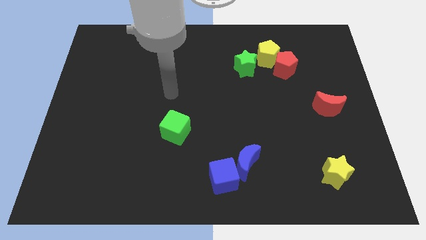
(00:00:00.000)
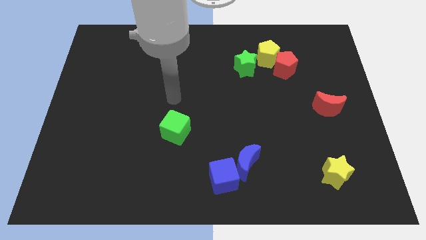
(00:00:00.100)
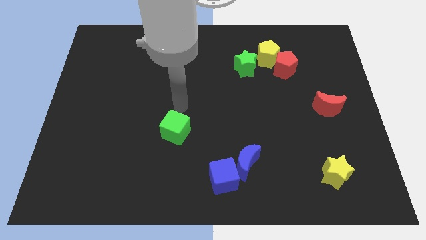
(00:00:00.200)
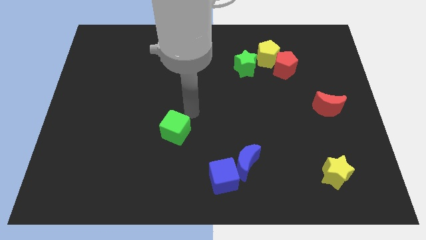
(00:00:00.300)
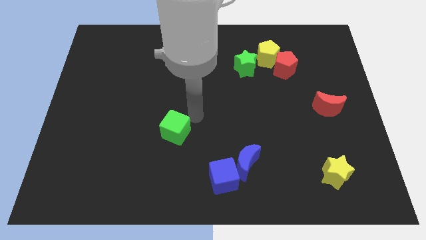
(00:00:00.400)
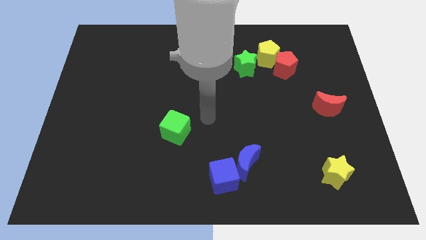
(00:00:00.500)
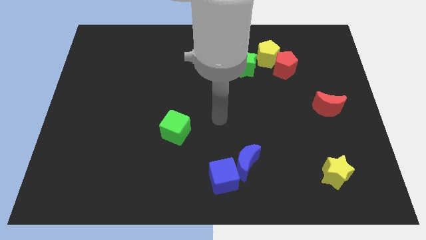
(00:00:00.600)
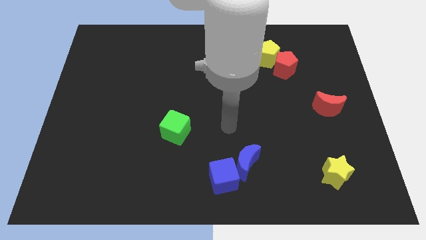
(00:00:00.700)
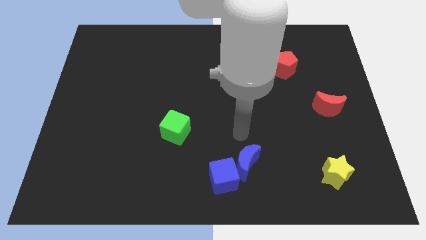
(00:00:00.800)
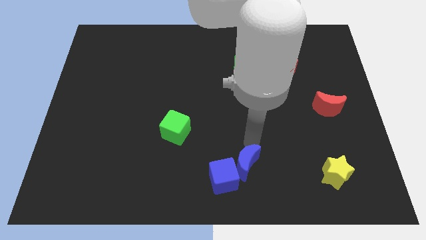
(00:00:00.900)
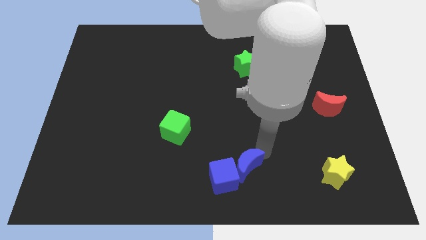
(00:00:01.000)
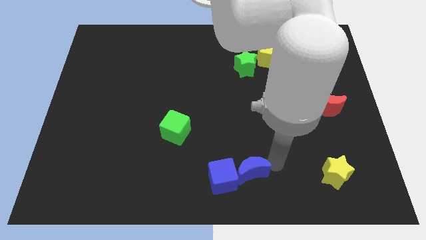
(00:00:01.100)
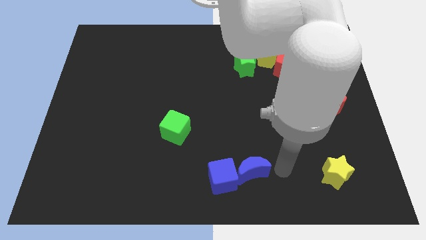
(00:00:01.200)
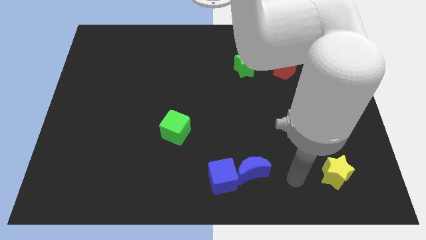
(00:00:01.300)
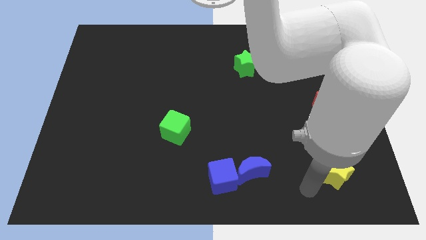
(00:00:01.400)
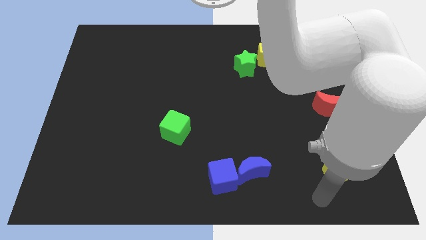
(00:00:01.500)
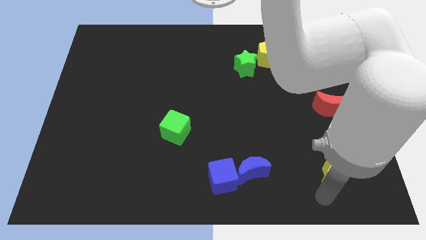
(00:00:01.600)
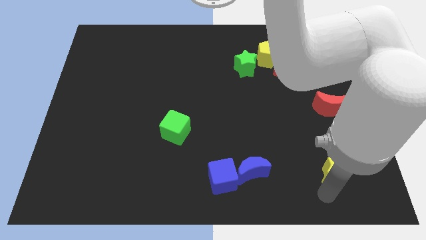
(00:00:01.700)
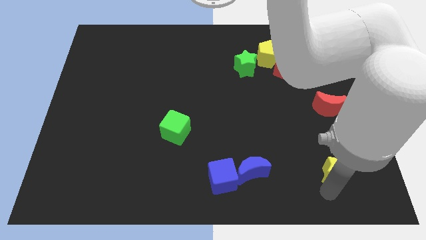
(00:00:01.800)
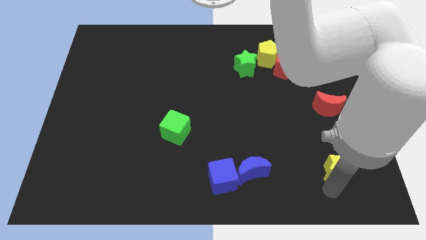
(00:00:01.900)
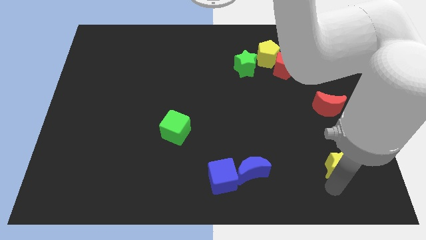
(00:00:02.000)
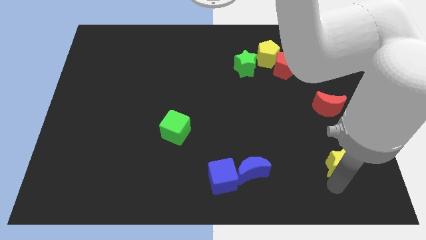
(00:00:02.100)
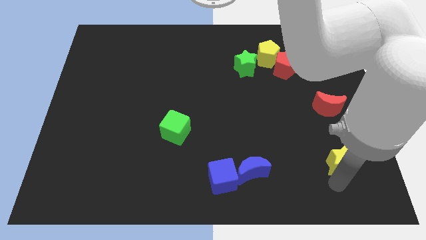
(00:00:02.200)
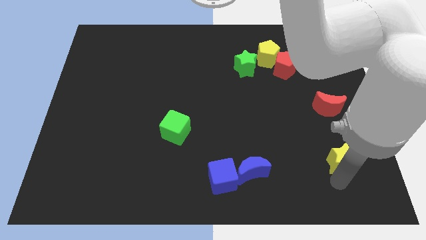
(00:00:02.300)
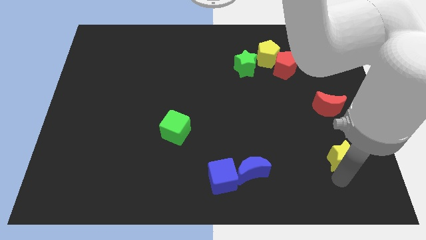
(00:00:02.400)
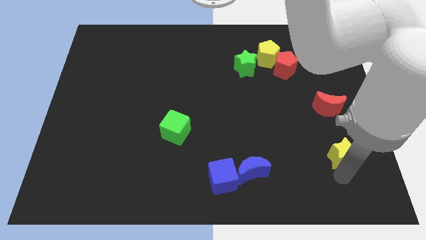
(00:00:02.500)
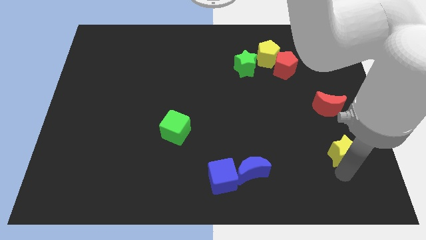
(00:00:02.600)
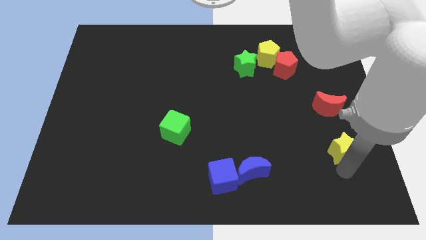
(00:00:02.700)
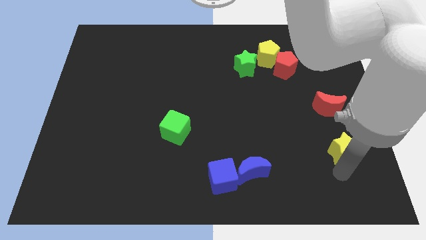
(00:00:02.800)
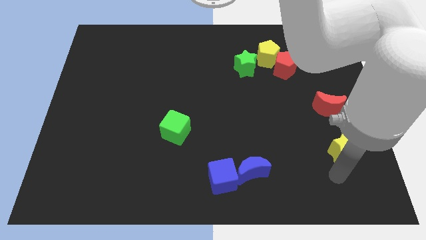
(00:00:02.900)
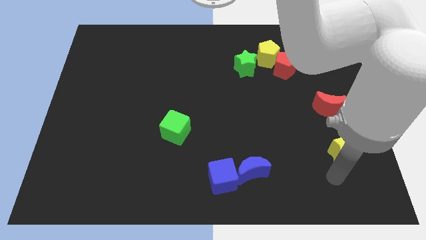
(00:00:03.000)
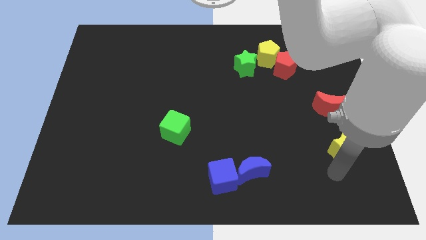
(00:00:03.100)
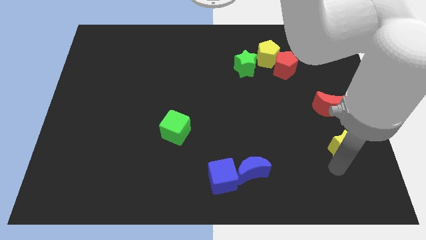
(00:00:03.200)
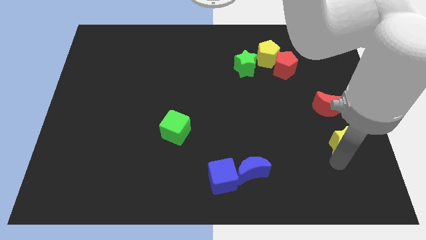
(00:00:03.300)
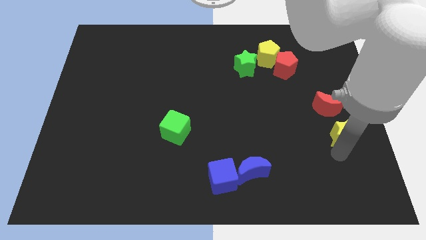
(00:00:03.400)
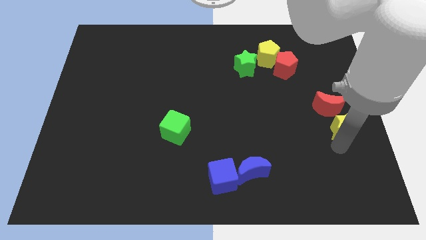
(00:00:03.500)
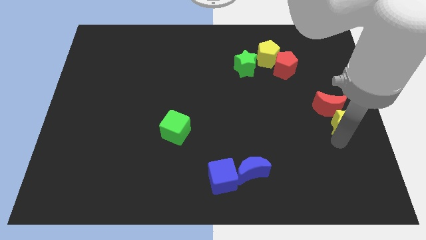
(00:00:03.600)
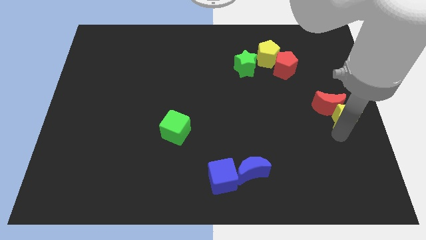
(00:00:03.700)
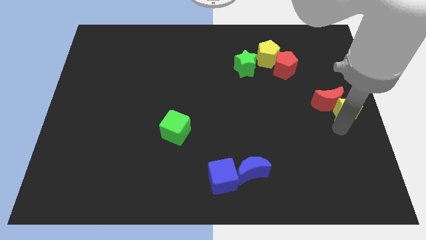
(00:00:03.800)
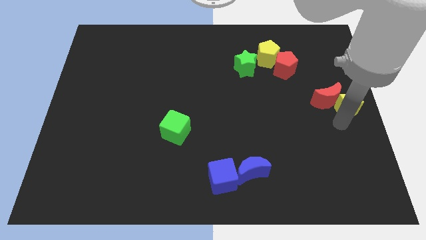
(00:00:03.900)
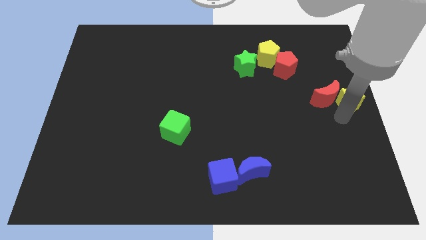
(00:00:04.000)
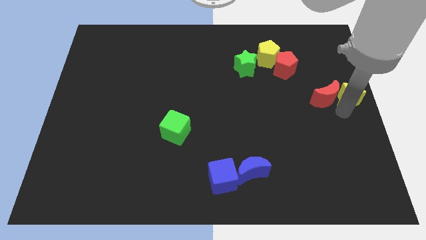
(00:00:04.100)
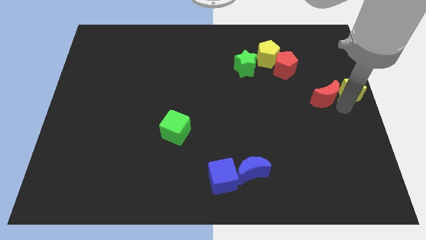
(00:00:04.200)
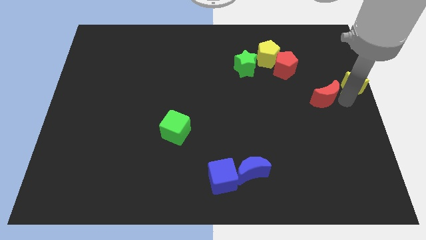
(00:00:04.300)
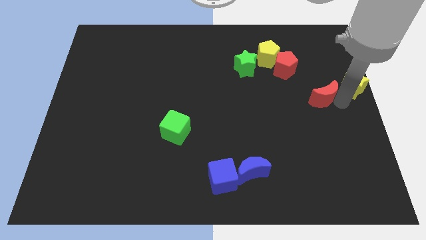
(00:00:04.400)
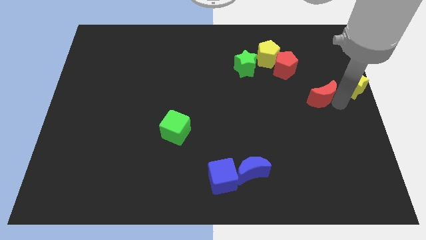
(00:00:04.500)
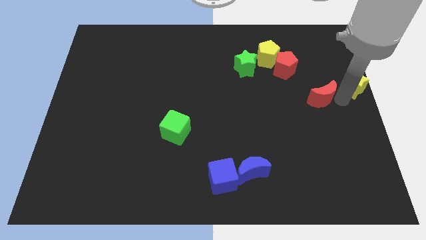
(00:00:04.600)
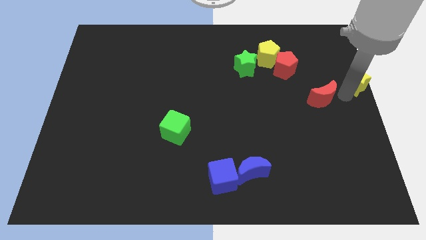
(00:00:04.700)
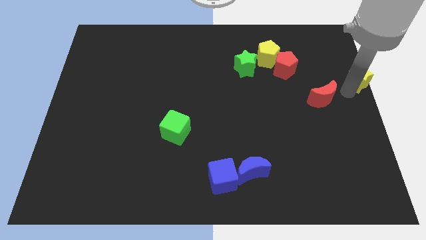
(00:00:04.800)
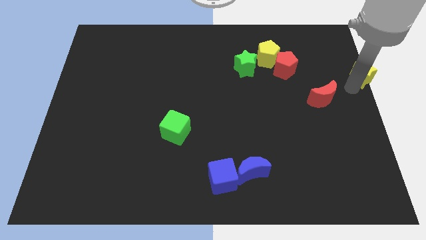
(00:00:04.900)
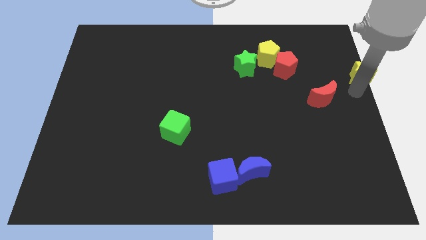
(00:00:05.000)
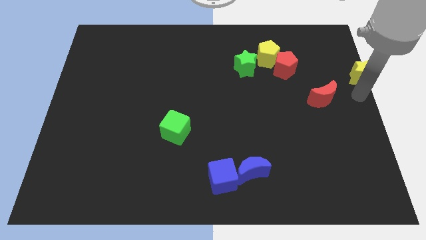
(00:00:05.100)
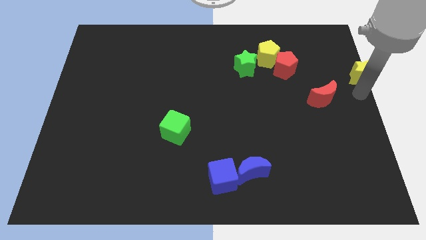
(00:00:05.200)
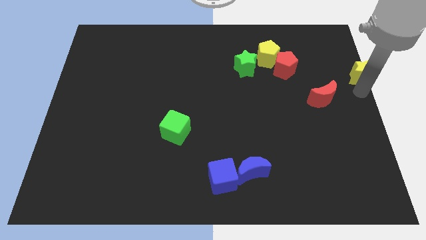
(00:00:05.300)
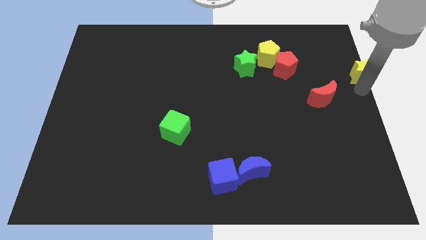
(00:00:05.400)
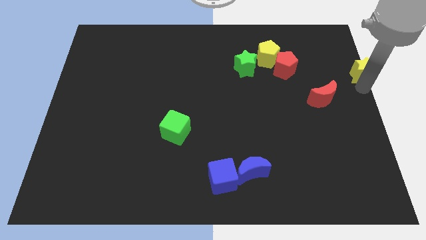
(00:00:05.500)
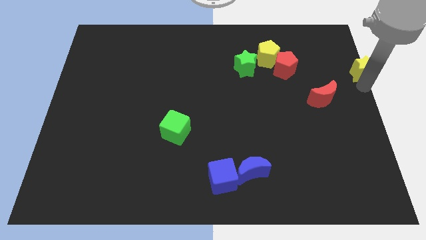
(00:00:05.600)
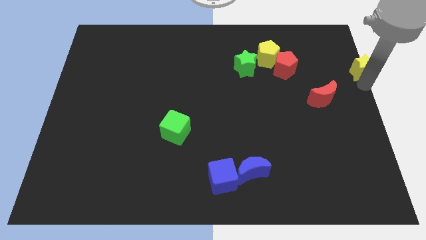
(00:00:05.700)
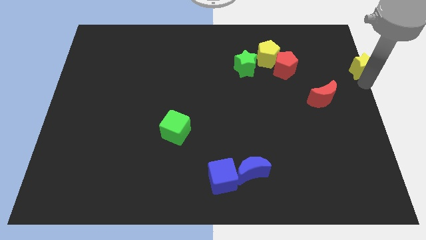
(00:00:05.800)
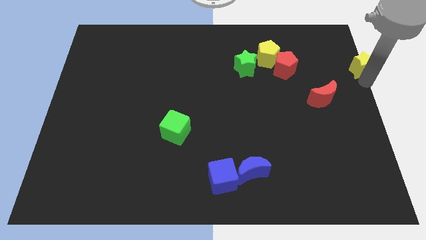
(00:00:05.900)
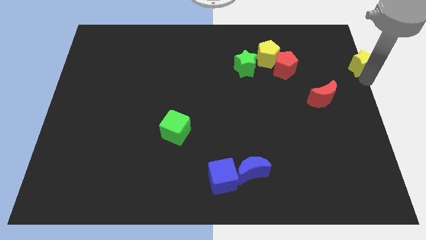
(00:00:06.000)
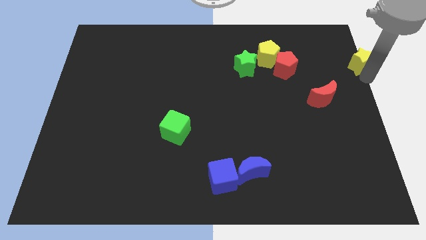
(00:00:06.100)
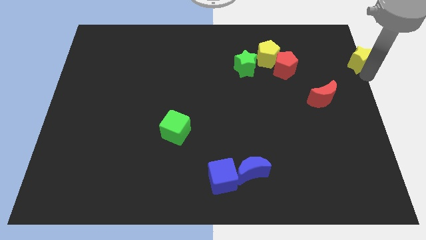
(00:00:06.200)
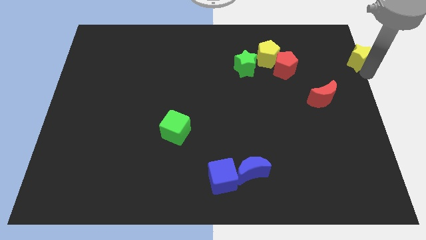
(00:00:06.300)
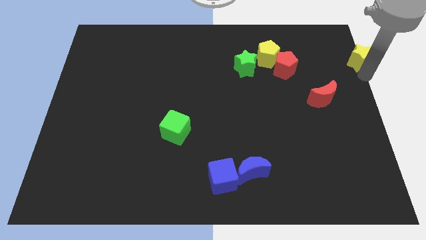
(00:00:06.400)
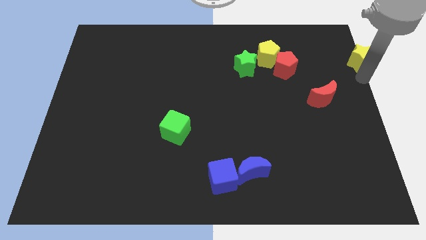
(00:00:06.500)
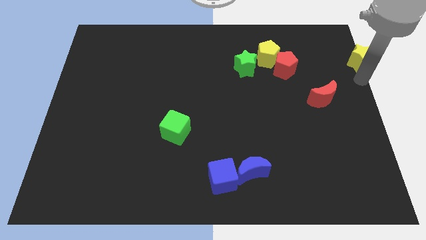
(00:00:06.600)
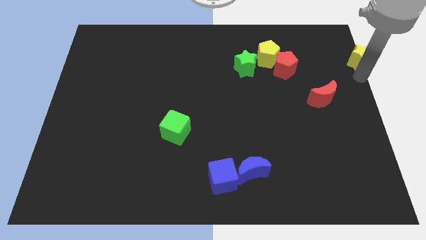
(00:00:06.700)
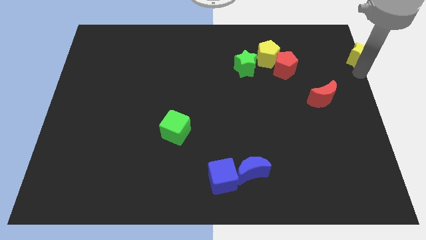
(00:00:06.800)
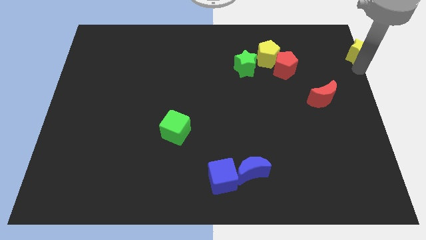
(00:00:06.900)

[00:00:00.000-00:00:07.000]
move the yellow star to the top right
